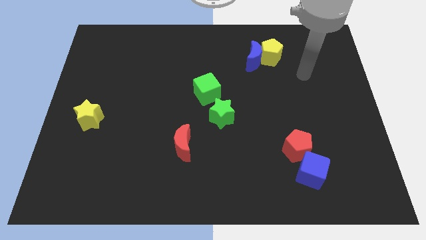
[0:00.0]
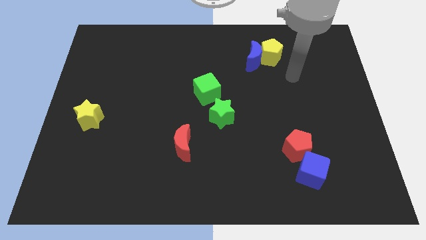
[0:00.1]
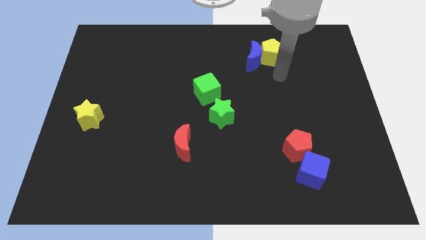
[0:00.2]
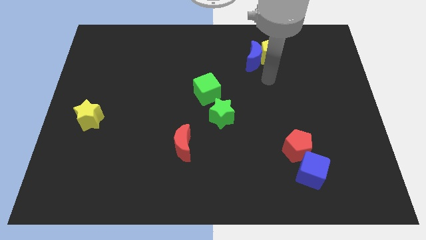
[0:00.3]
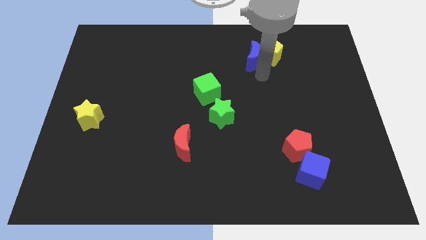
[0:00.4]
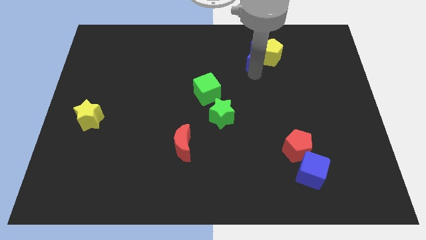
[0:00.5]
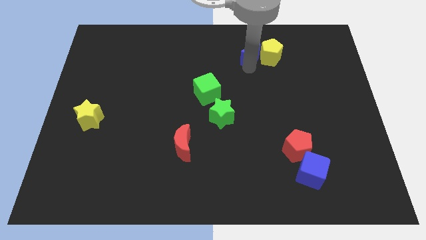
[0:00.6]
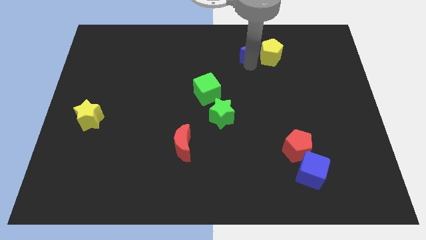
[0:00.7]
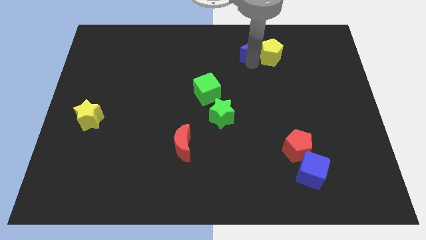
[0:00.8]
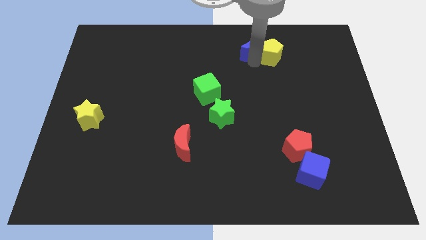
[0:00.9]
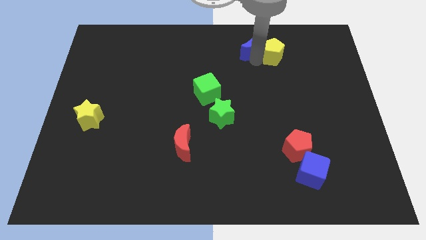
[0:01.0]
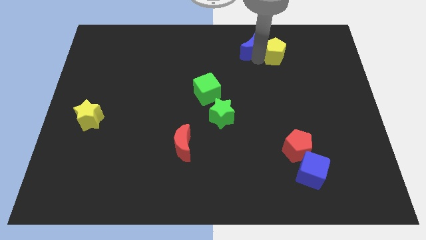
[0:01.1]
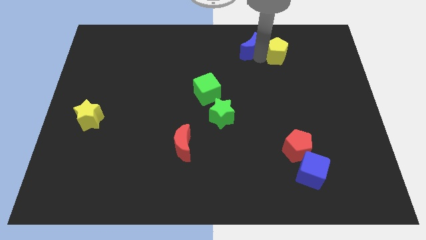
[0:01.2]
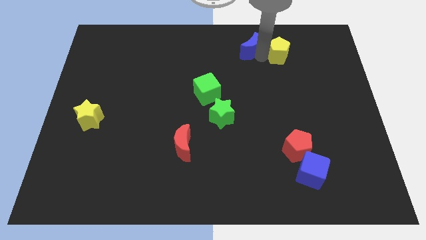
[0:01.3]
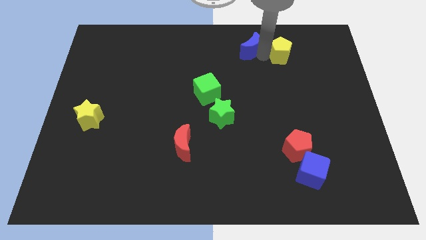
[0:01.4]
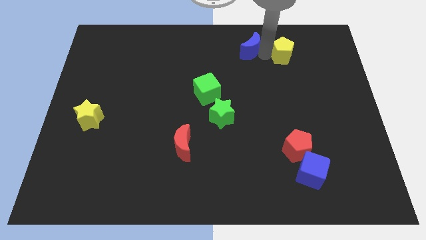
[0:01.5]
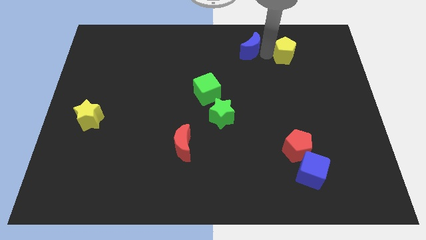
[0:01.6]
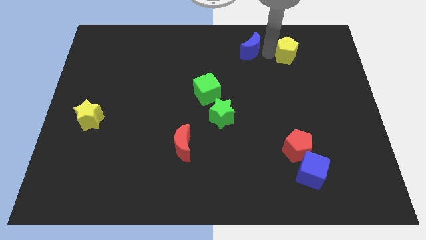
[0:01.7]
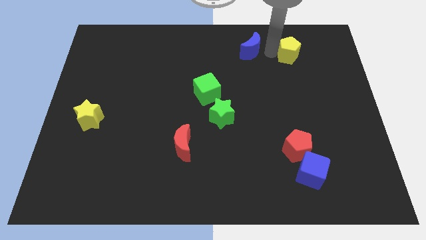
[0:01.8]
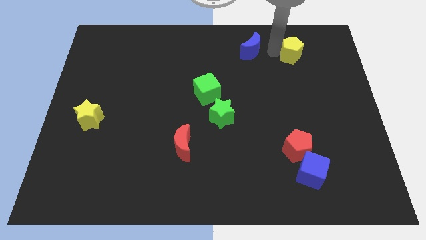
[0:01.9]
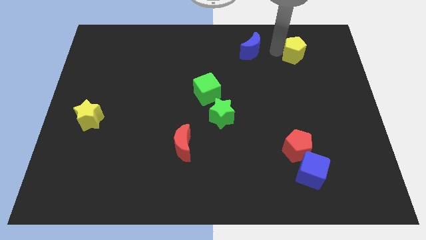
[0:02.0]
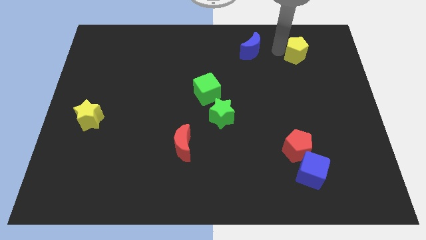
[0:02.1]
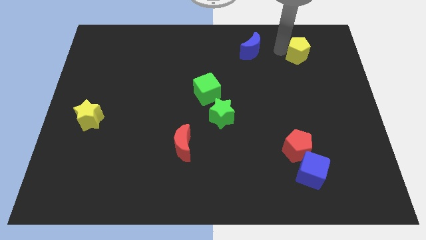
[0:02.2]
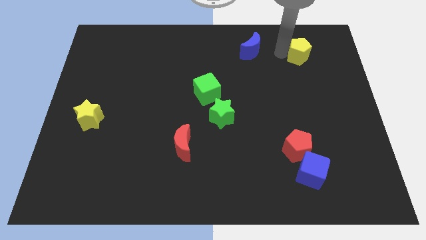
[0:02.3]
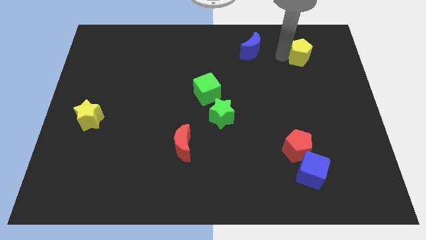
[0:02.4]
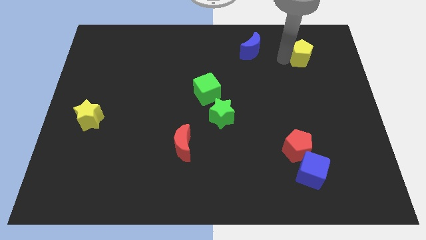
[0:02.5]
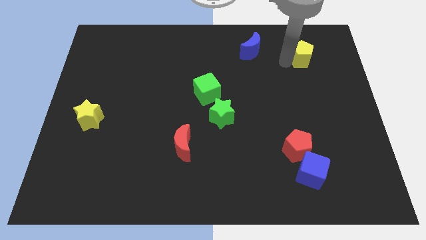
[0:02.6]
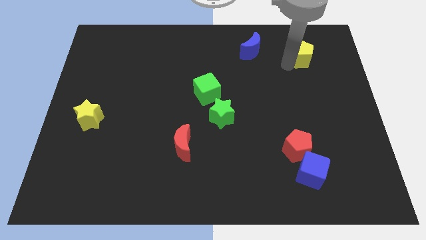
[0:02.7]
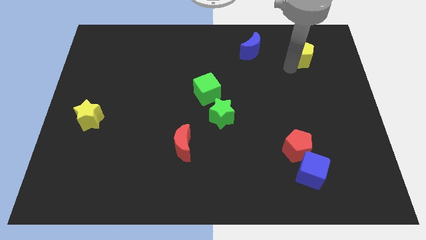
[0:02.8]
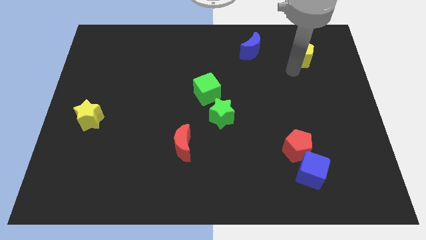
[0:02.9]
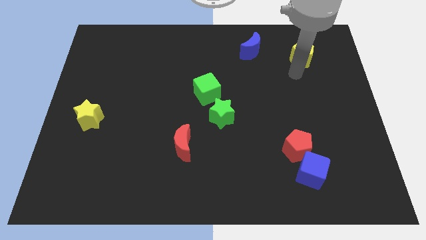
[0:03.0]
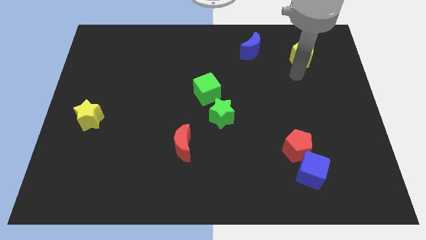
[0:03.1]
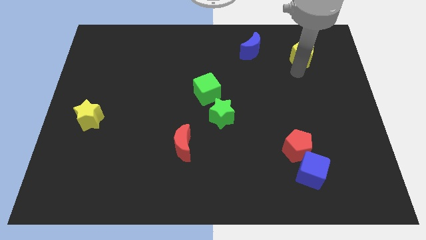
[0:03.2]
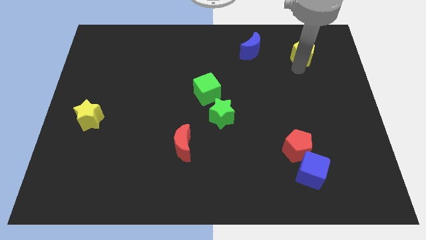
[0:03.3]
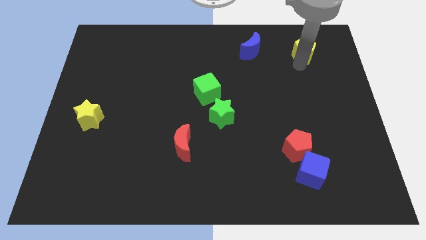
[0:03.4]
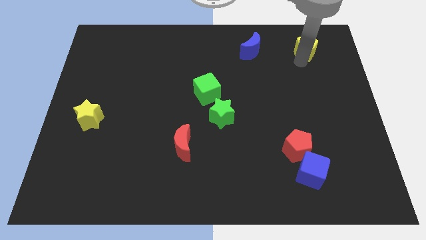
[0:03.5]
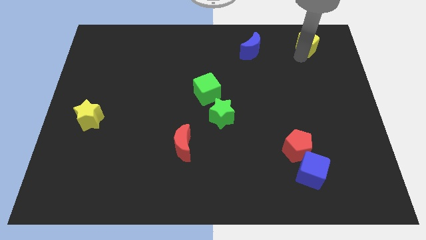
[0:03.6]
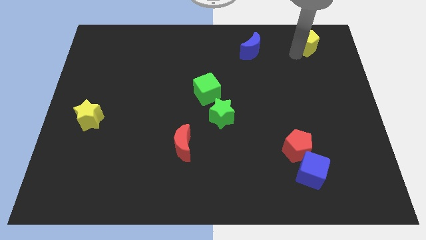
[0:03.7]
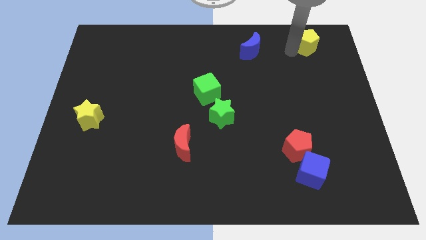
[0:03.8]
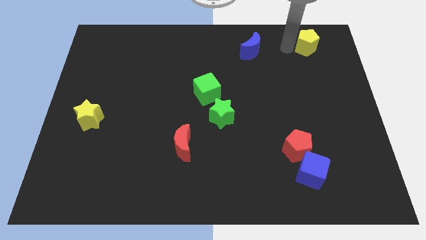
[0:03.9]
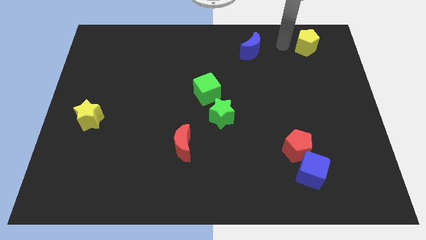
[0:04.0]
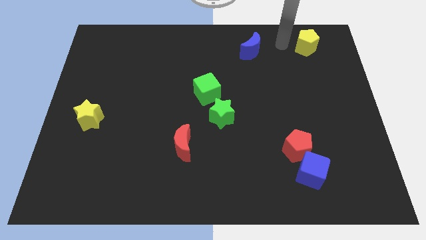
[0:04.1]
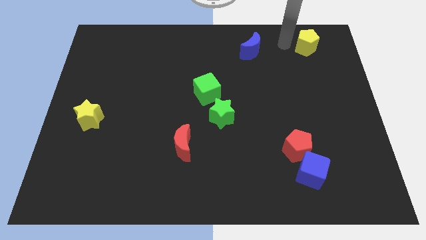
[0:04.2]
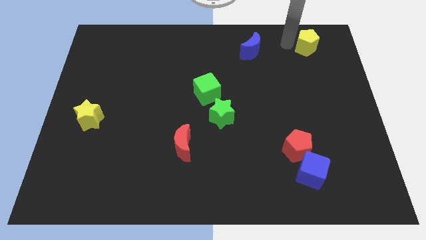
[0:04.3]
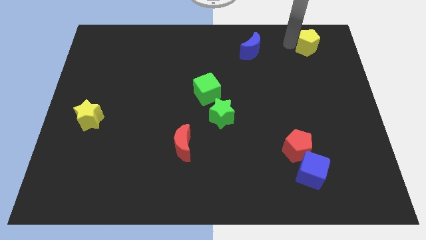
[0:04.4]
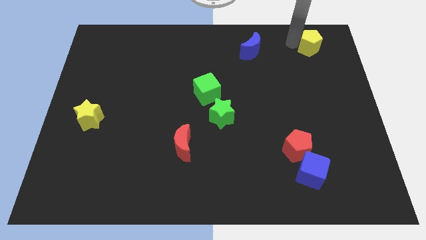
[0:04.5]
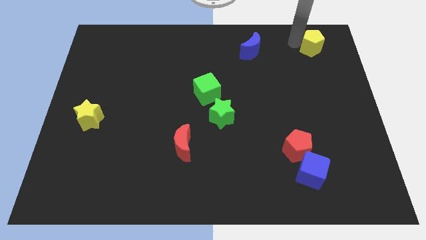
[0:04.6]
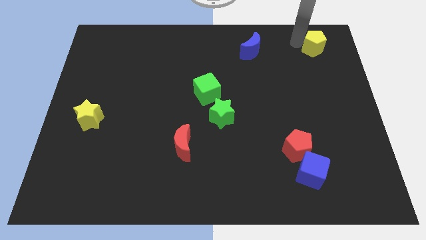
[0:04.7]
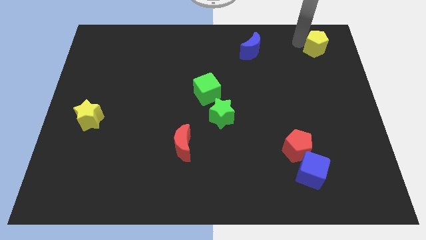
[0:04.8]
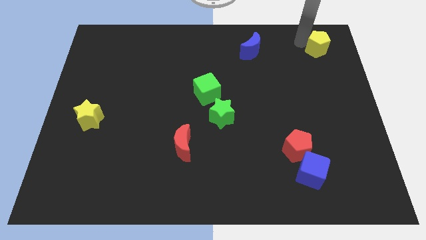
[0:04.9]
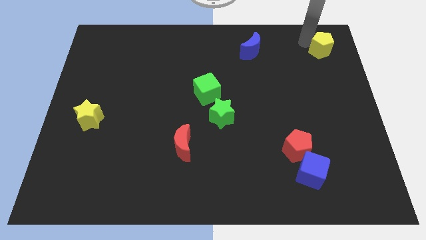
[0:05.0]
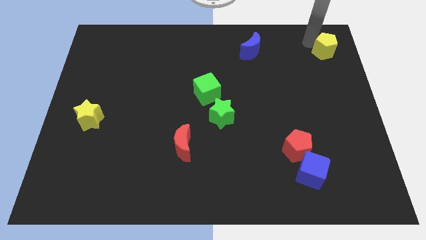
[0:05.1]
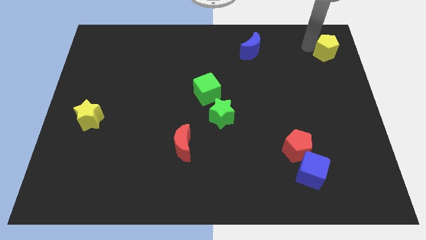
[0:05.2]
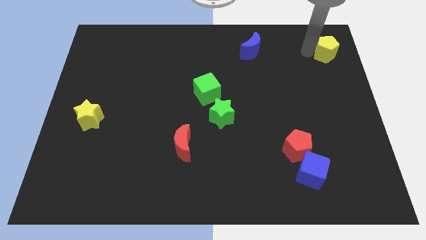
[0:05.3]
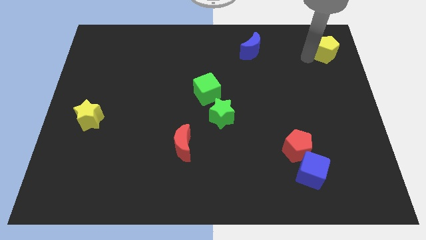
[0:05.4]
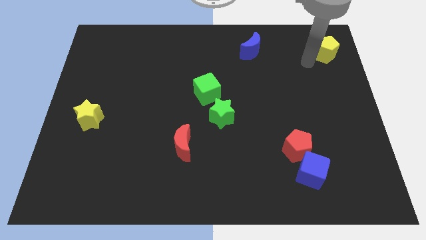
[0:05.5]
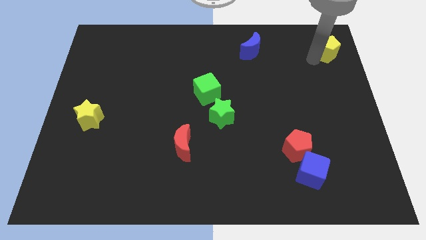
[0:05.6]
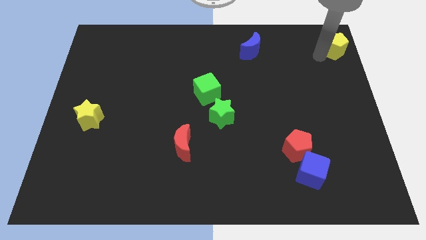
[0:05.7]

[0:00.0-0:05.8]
move the yellow pentagon to the top right of the board

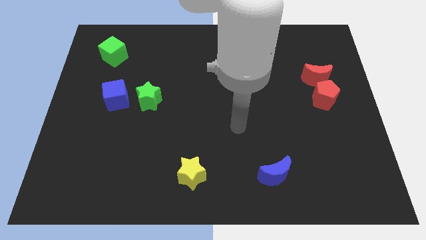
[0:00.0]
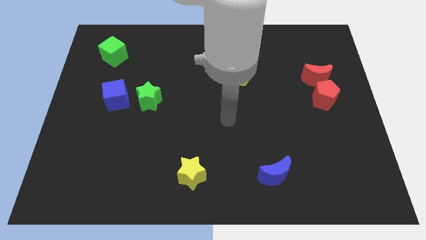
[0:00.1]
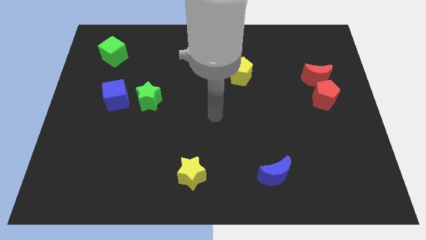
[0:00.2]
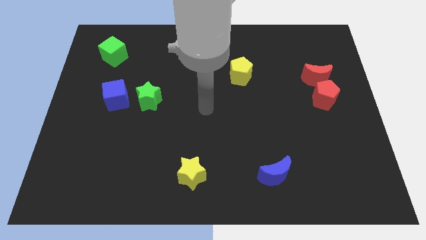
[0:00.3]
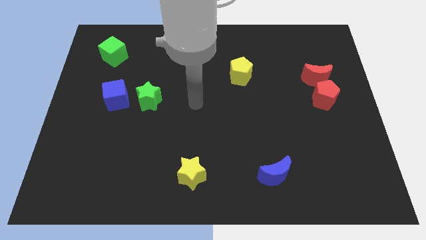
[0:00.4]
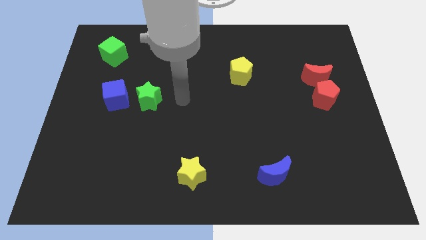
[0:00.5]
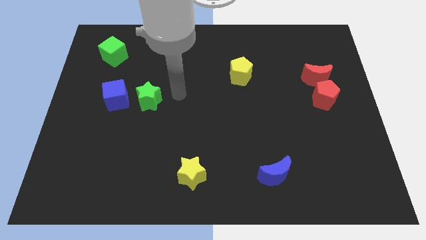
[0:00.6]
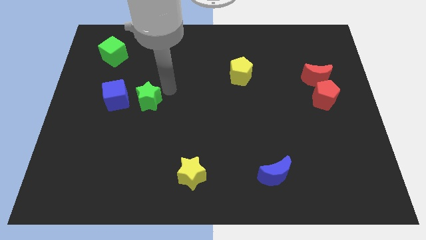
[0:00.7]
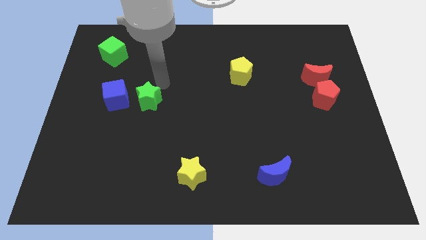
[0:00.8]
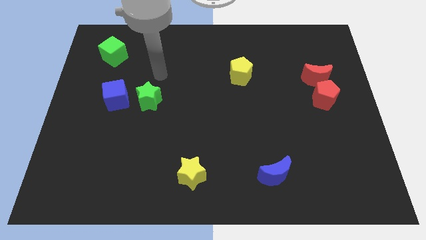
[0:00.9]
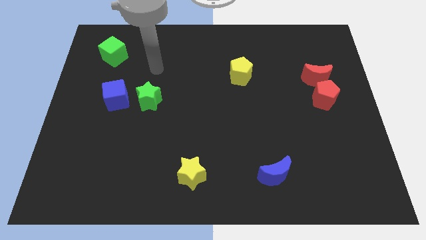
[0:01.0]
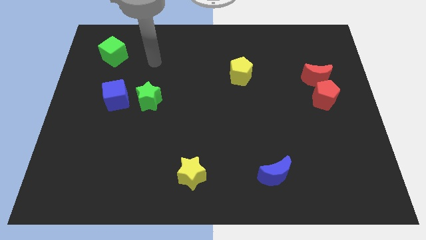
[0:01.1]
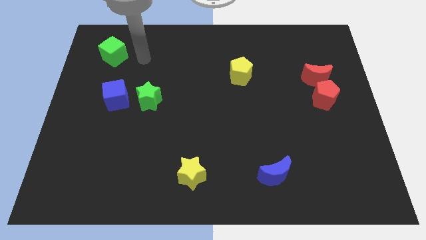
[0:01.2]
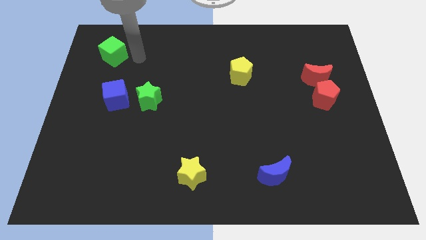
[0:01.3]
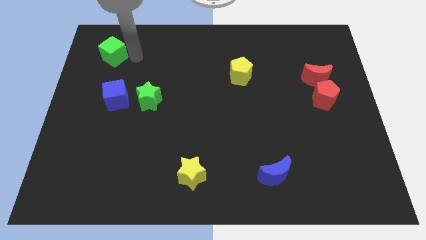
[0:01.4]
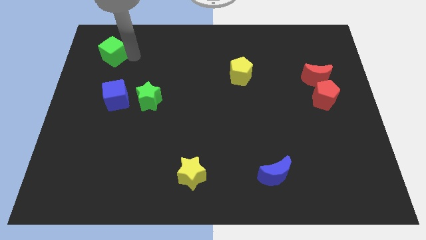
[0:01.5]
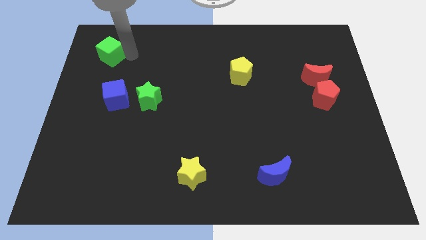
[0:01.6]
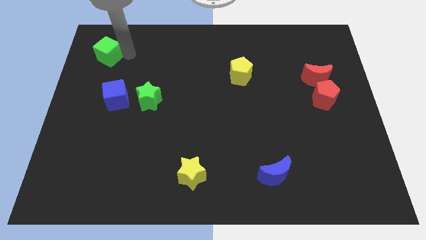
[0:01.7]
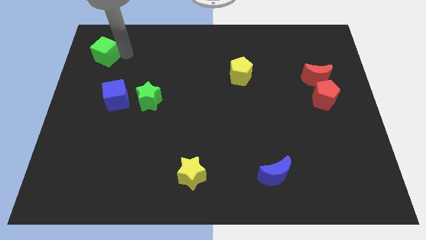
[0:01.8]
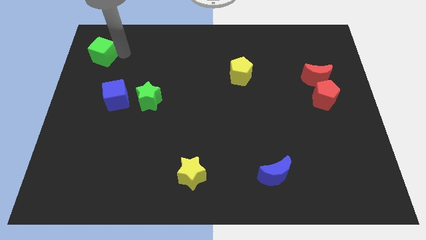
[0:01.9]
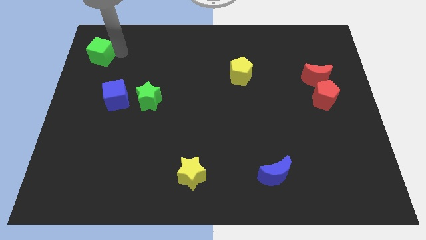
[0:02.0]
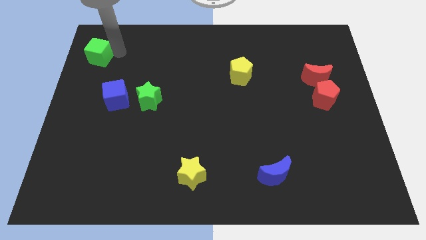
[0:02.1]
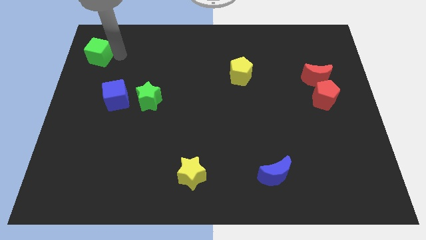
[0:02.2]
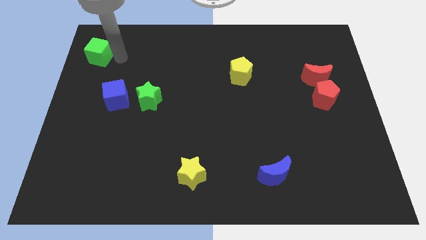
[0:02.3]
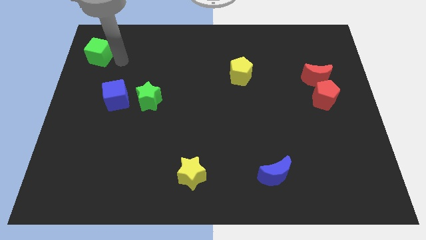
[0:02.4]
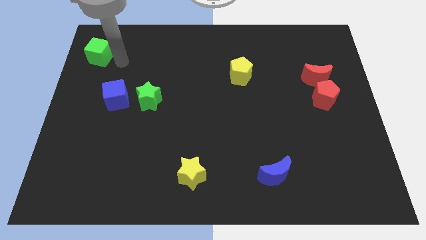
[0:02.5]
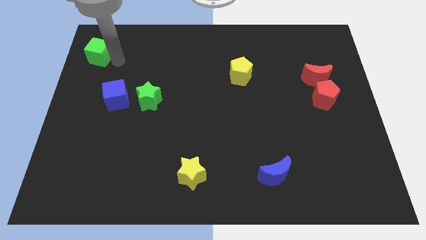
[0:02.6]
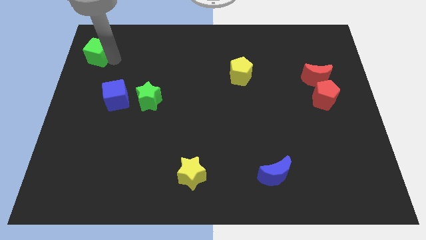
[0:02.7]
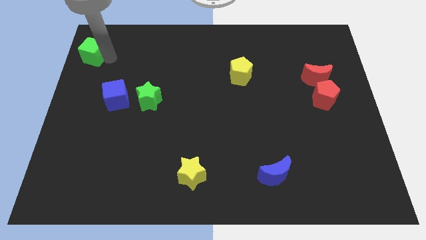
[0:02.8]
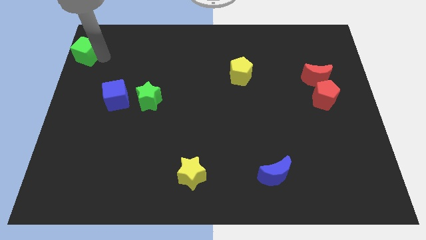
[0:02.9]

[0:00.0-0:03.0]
push the green cube to the top left corner
